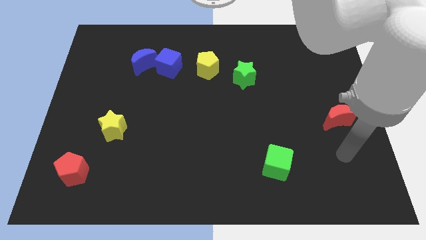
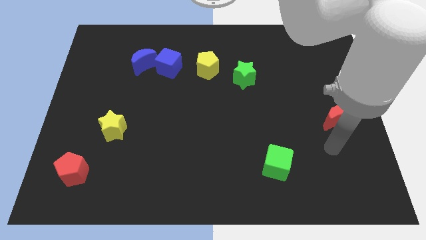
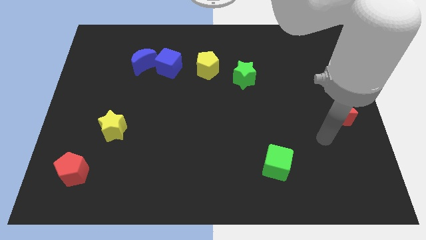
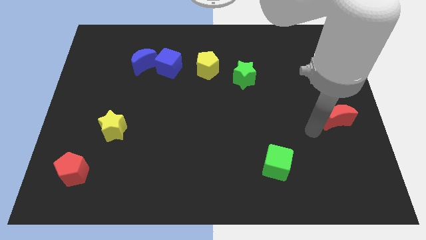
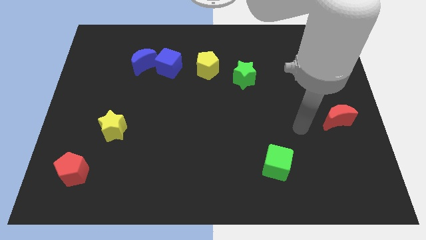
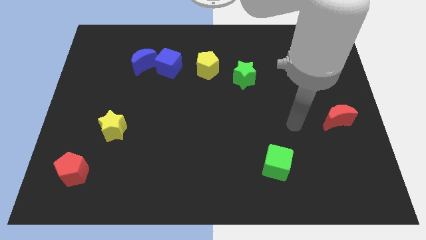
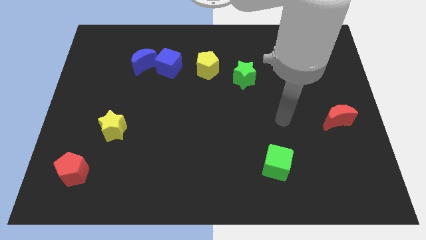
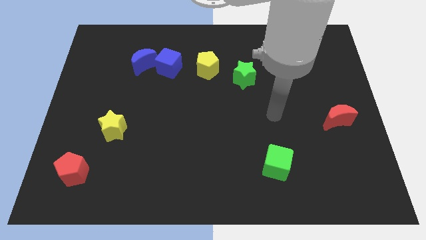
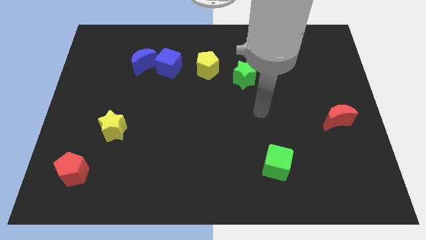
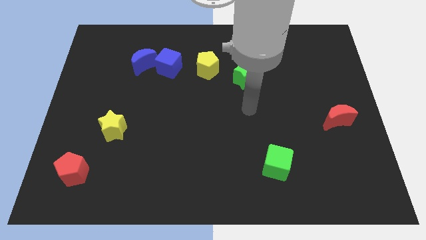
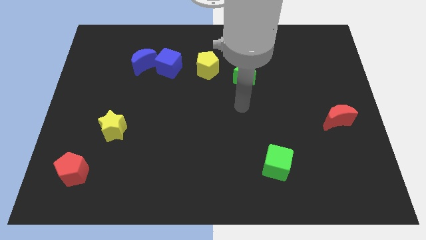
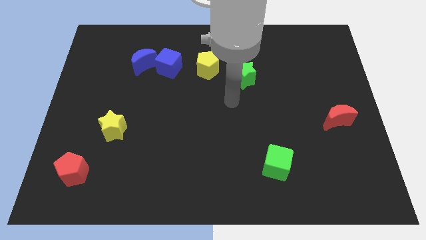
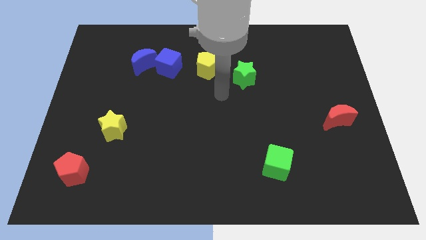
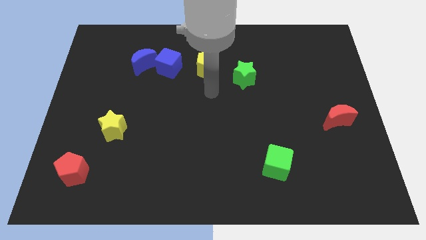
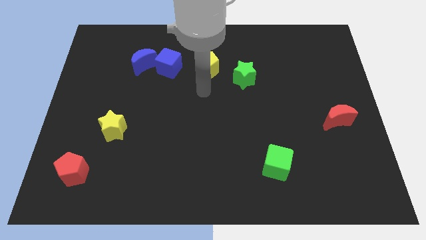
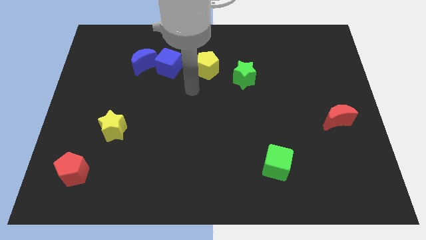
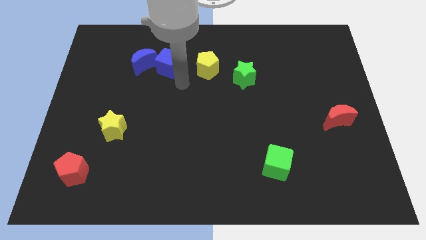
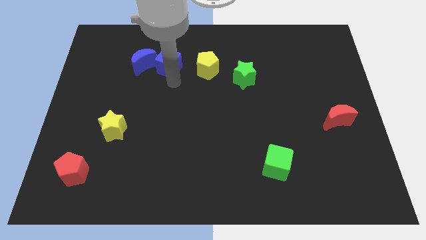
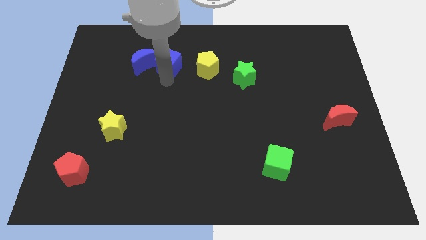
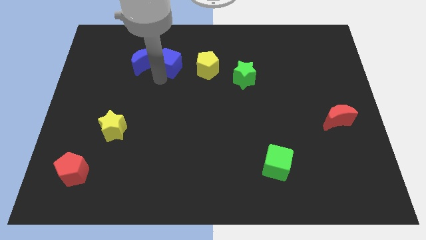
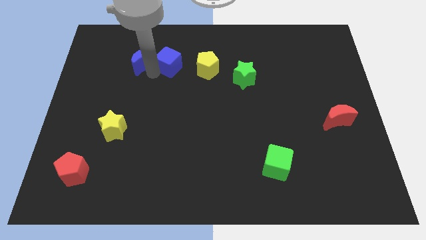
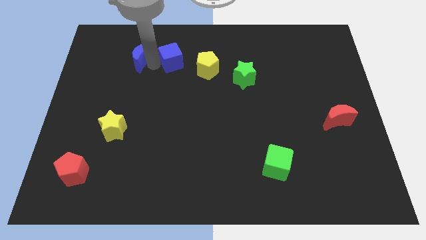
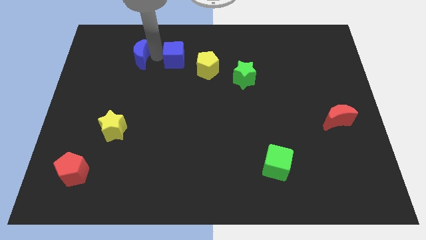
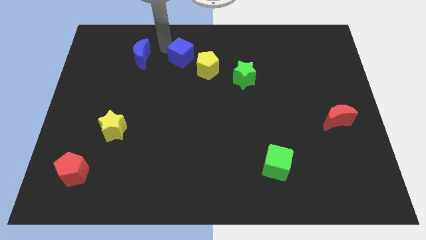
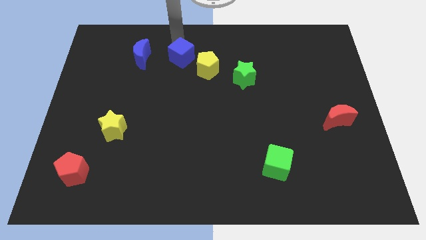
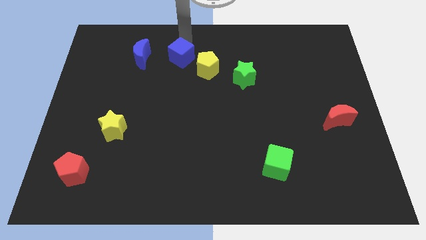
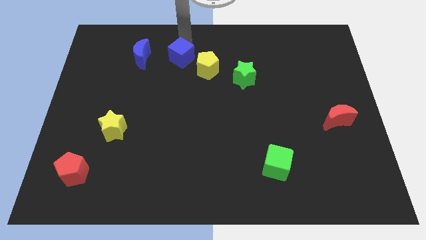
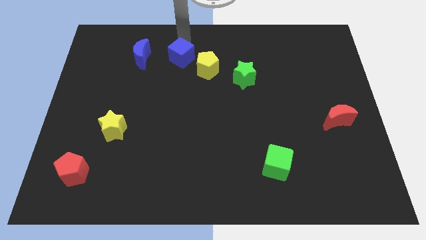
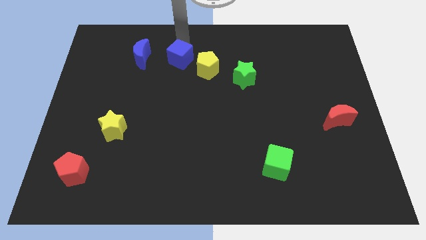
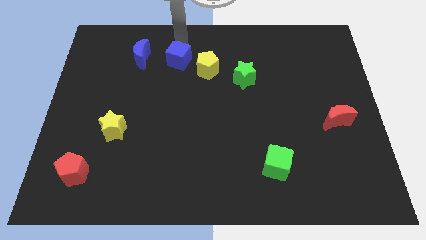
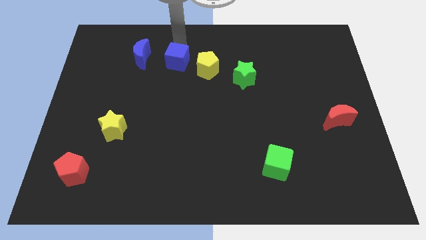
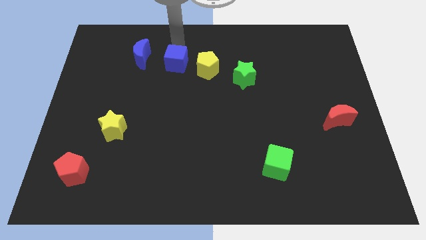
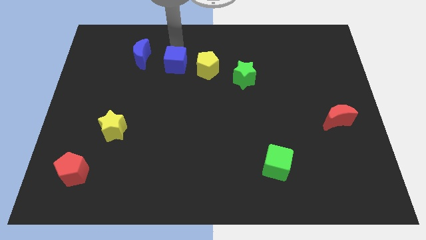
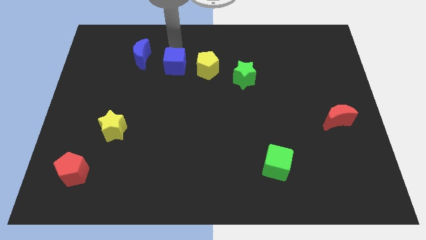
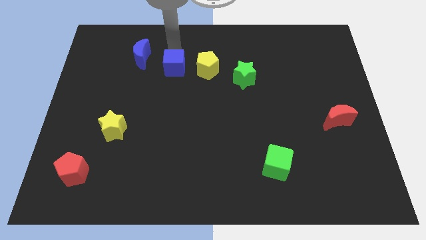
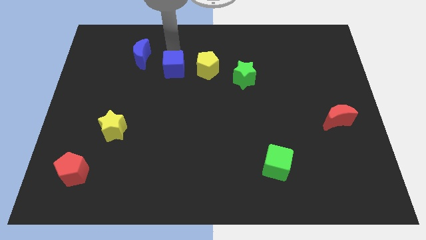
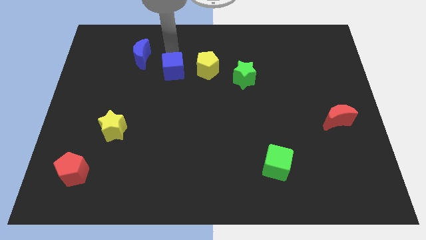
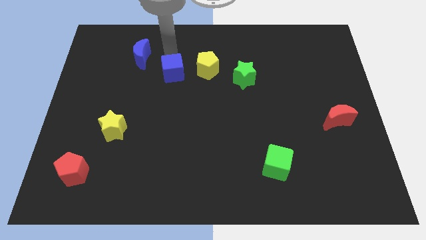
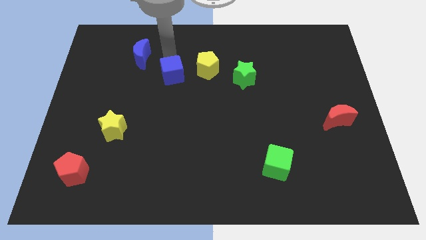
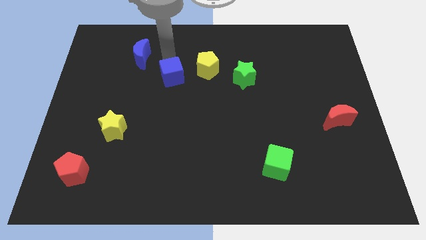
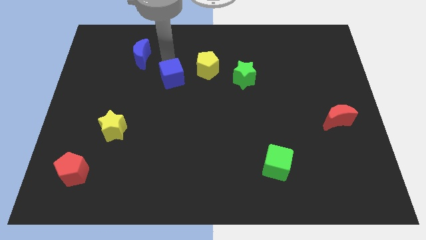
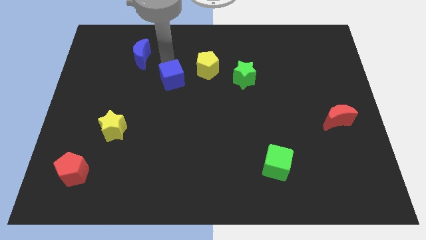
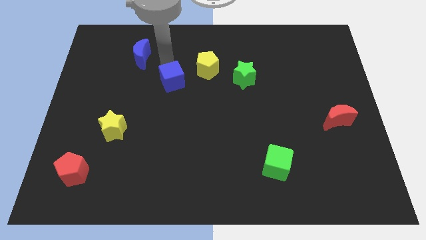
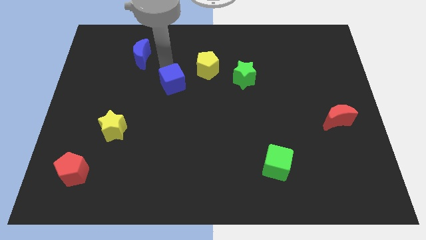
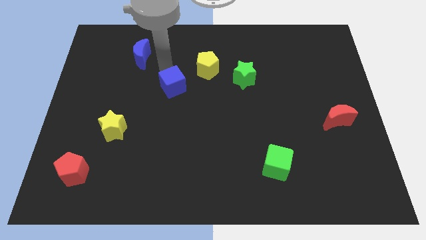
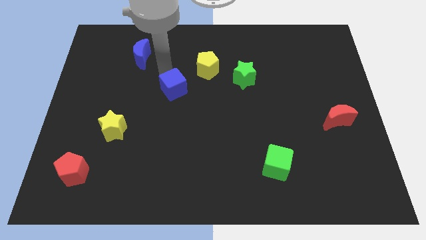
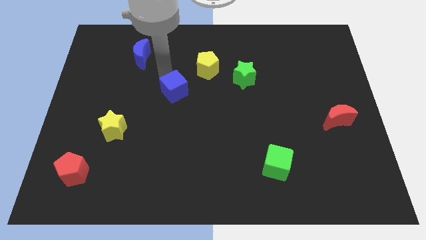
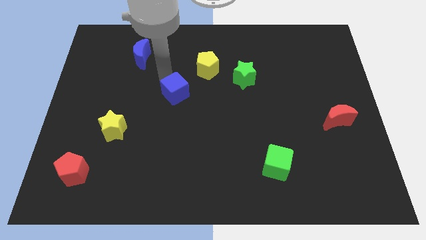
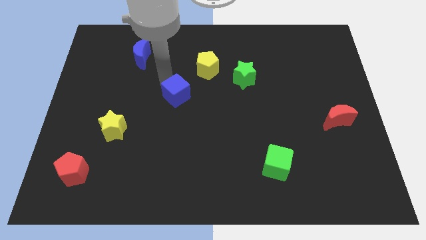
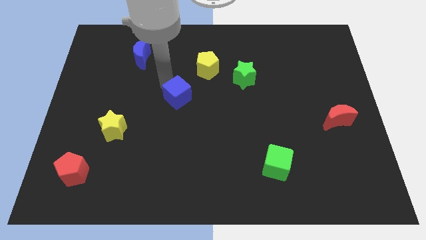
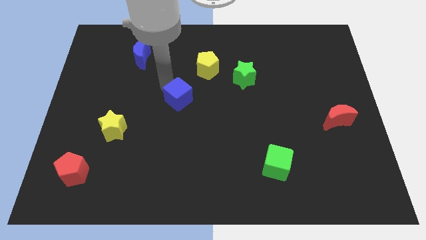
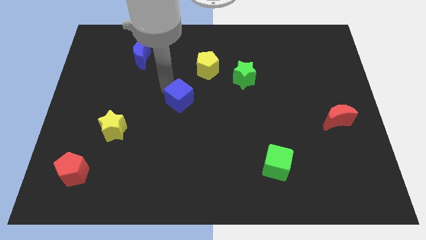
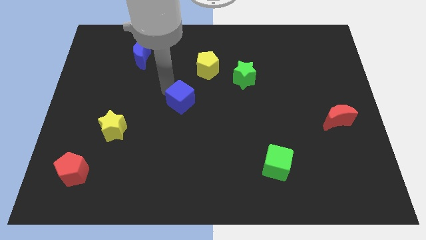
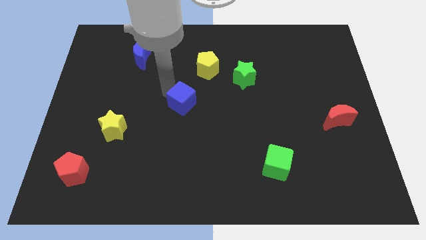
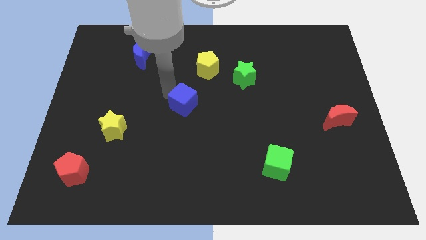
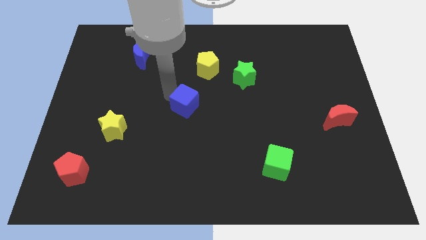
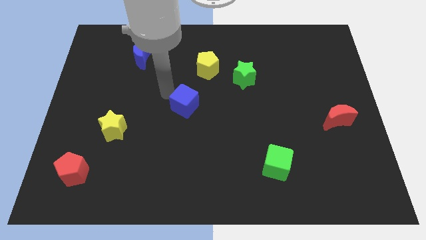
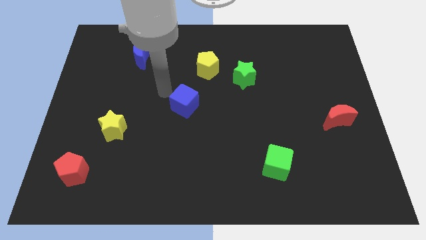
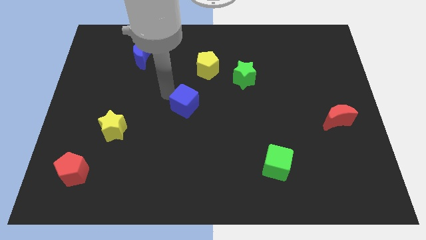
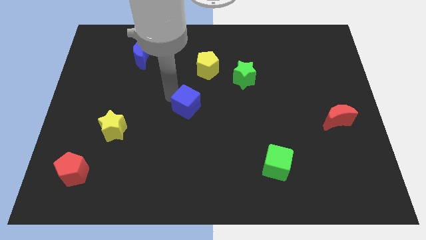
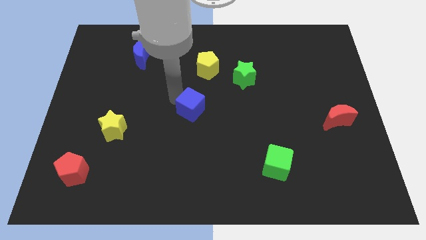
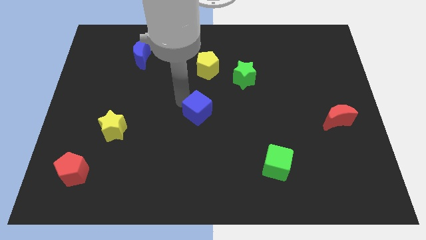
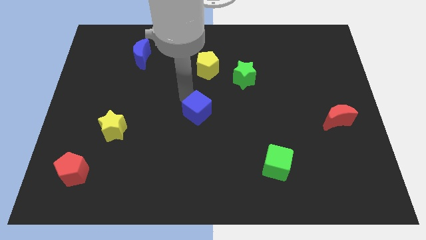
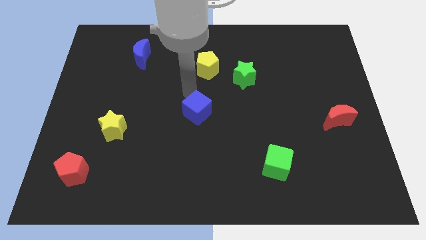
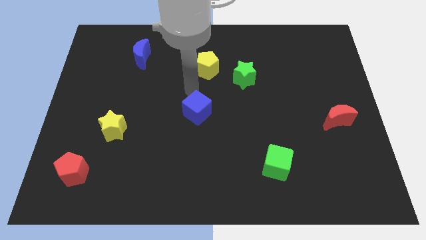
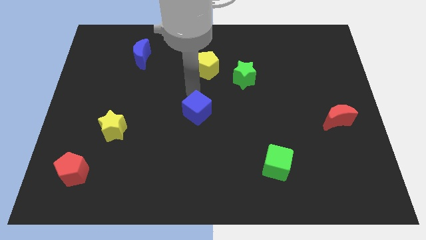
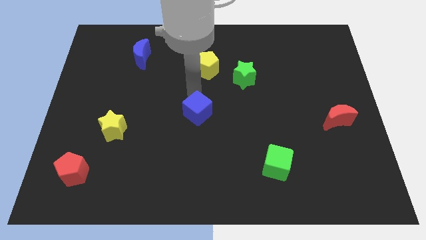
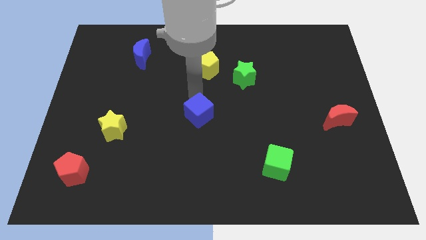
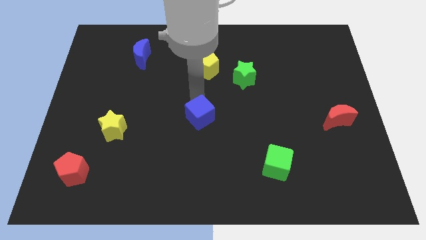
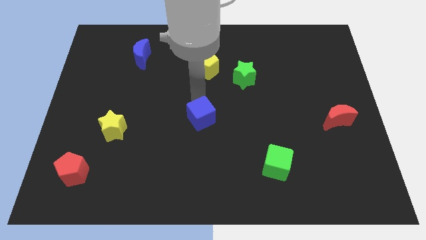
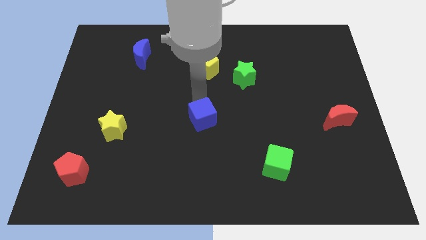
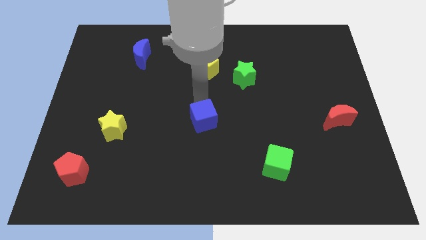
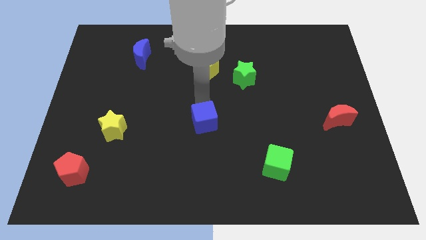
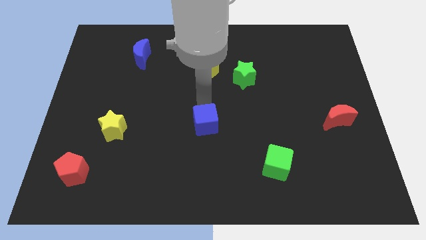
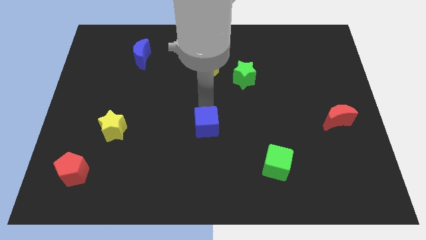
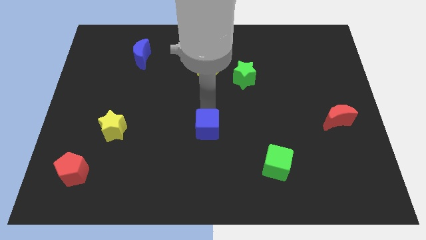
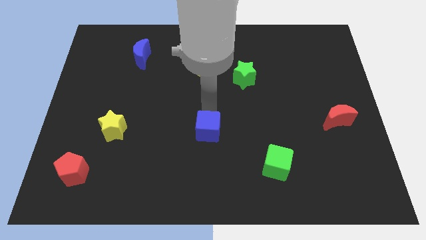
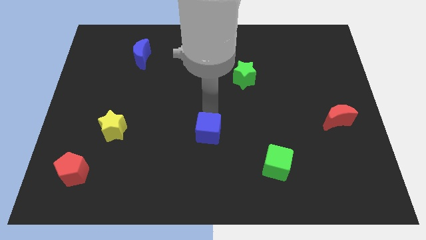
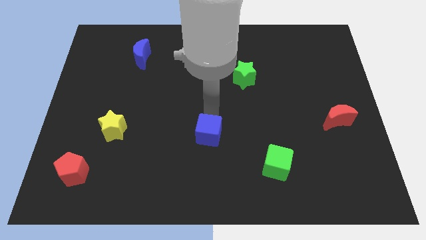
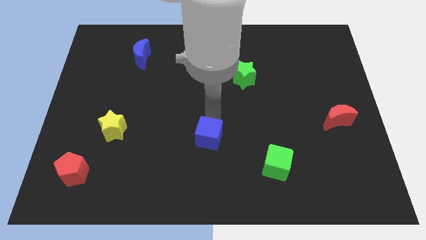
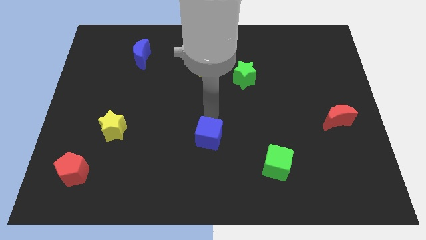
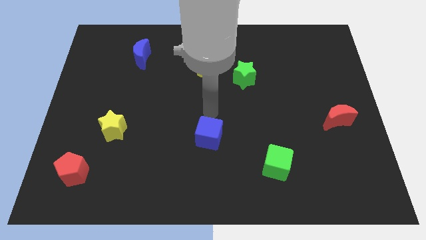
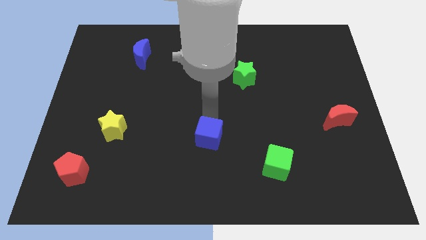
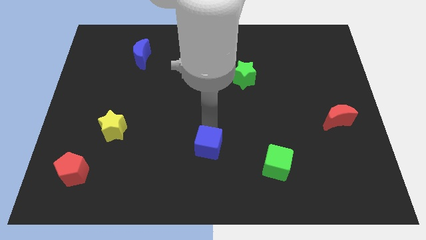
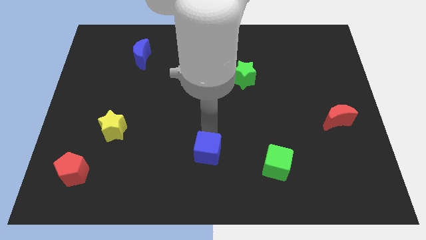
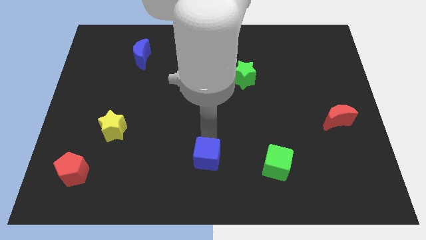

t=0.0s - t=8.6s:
slide the blue cube to the bottom
